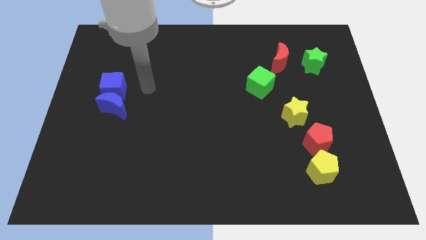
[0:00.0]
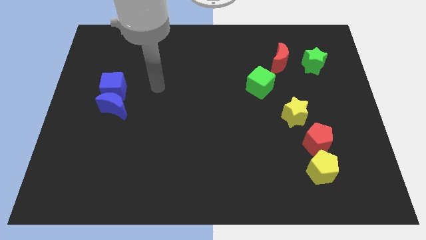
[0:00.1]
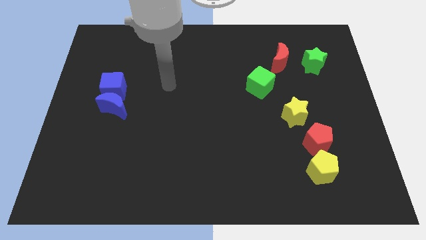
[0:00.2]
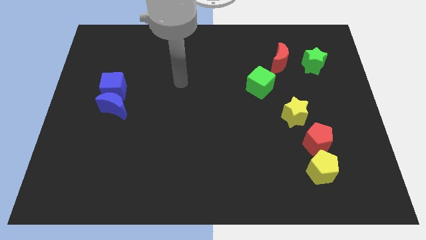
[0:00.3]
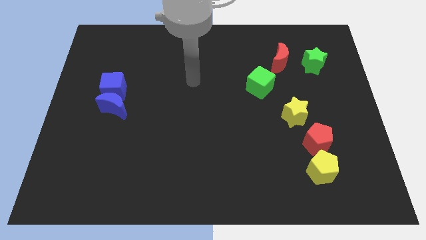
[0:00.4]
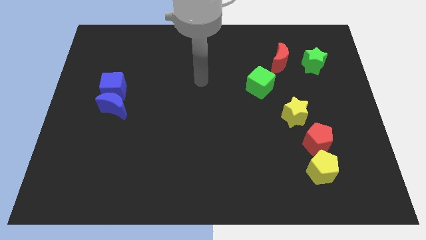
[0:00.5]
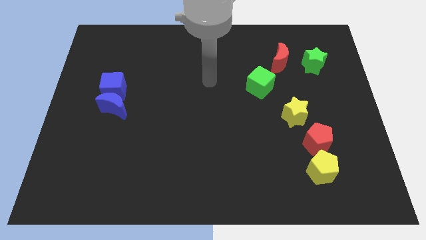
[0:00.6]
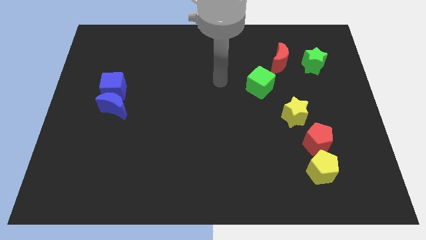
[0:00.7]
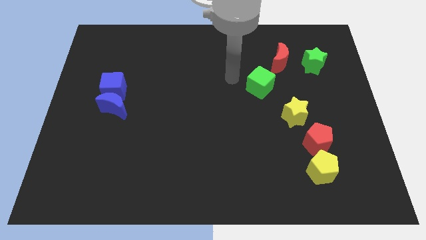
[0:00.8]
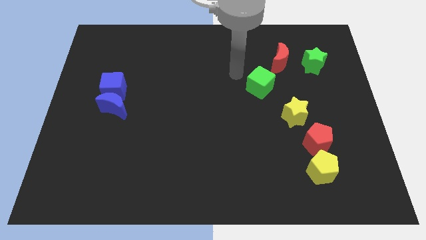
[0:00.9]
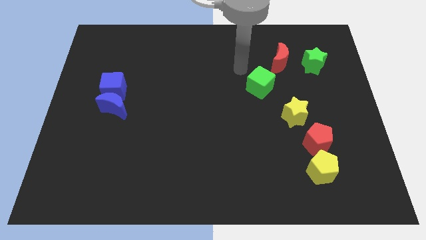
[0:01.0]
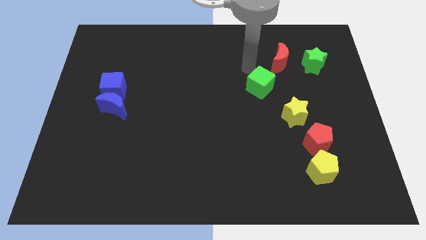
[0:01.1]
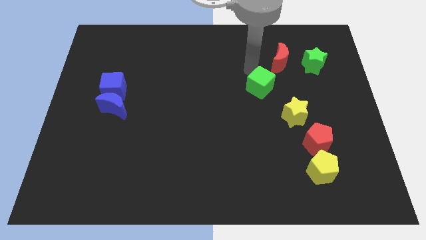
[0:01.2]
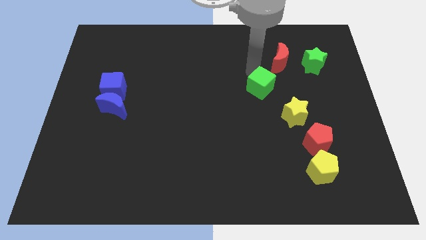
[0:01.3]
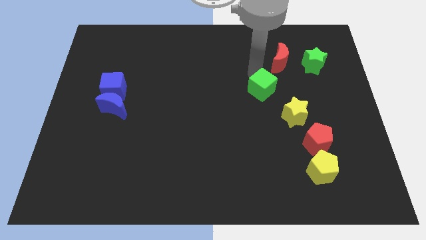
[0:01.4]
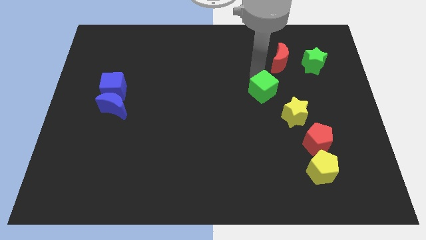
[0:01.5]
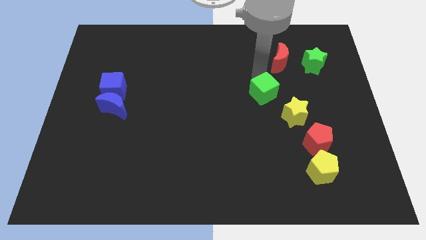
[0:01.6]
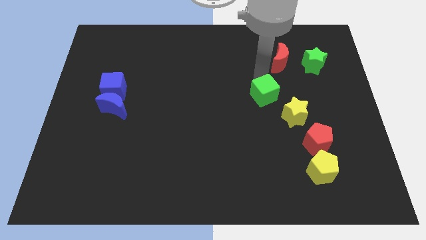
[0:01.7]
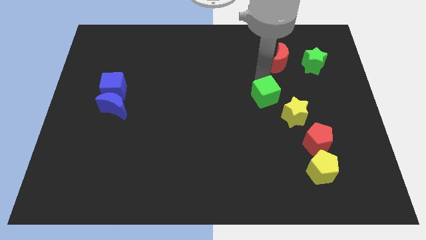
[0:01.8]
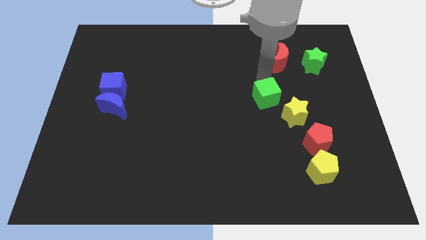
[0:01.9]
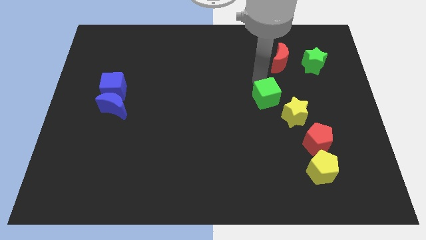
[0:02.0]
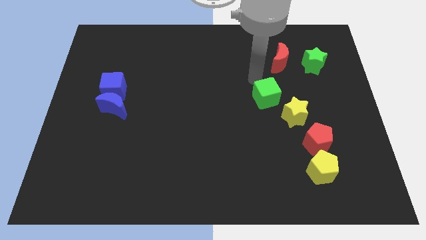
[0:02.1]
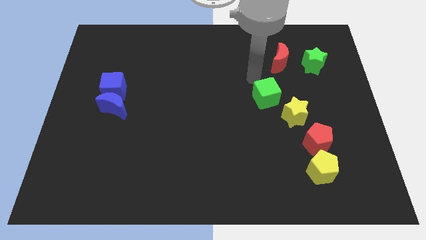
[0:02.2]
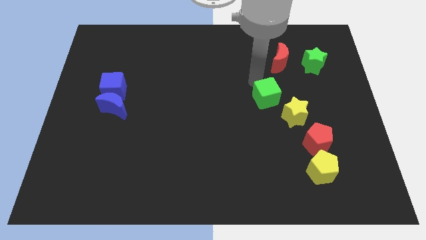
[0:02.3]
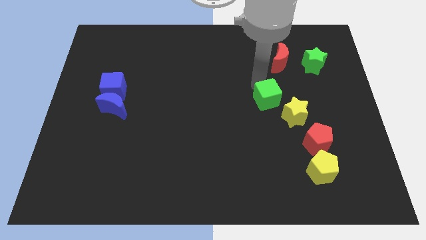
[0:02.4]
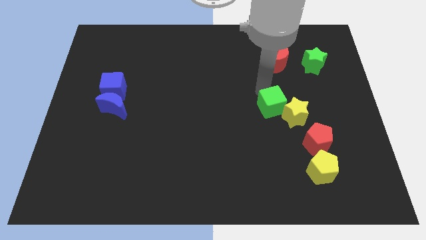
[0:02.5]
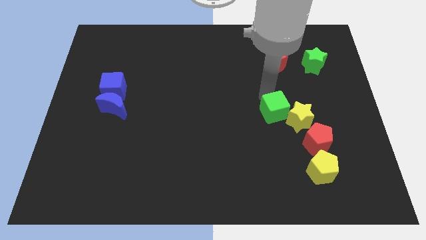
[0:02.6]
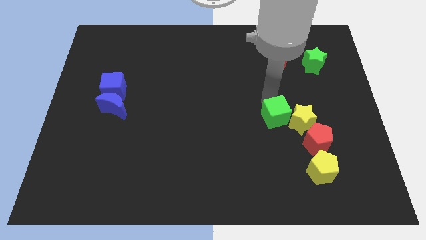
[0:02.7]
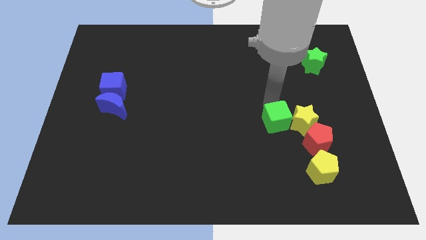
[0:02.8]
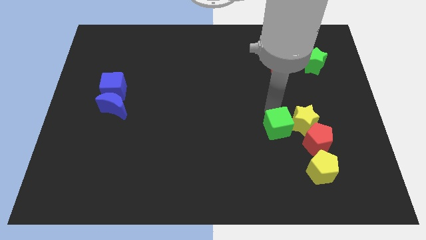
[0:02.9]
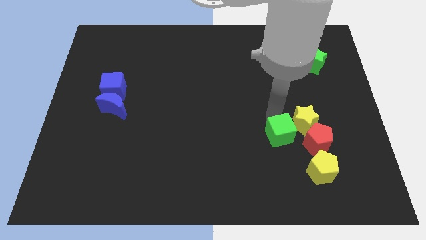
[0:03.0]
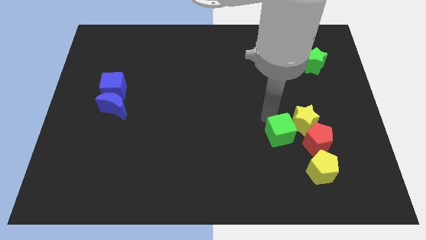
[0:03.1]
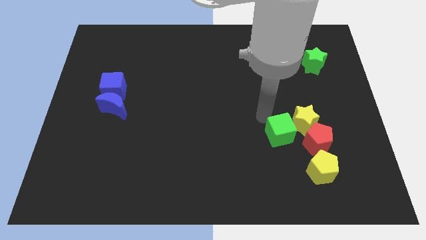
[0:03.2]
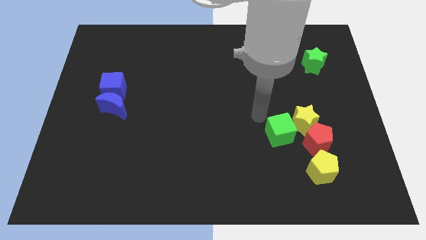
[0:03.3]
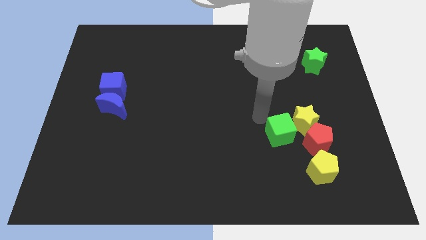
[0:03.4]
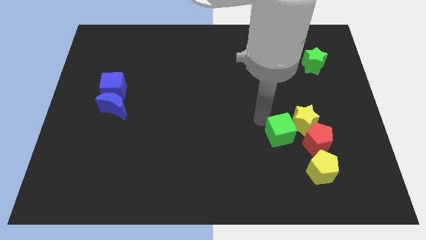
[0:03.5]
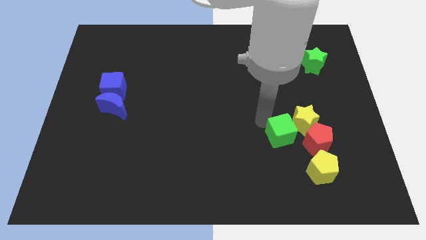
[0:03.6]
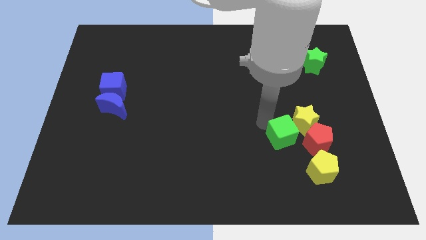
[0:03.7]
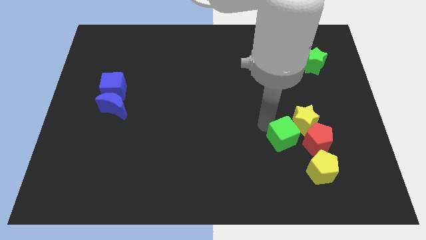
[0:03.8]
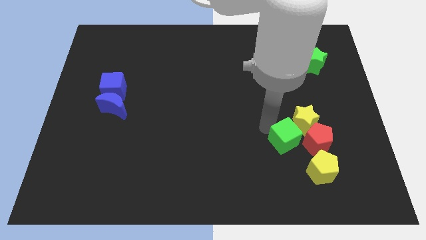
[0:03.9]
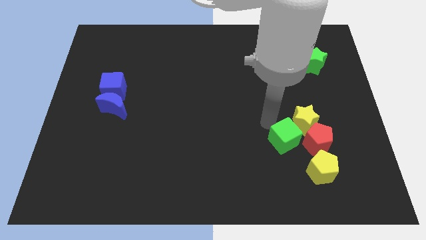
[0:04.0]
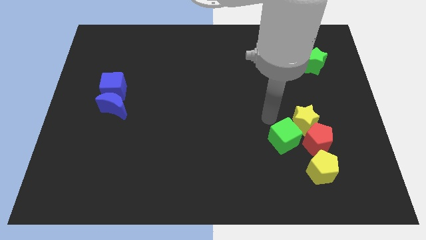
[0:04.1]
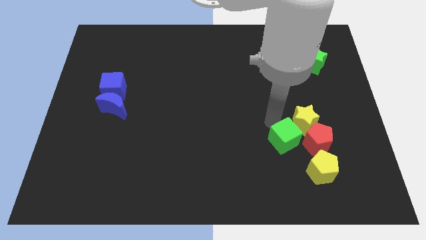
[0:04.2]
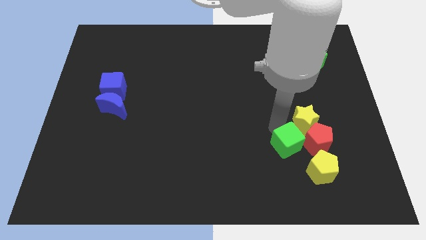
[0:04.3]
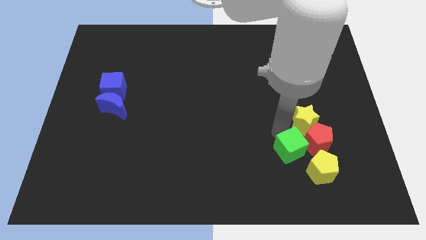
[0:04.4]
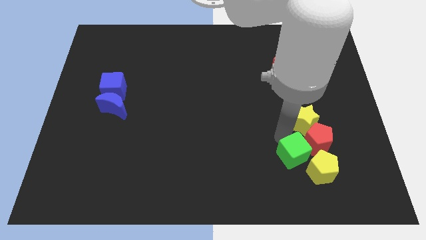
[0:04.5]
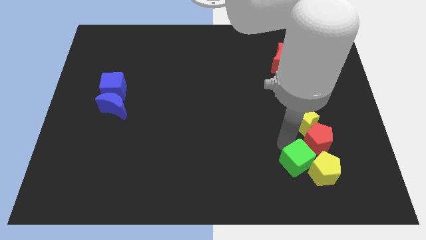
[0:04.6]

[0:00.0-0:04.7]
slide the green cube to the yellow pentagon

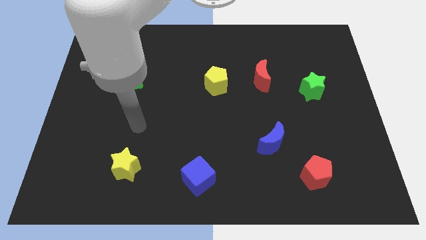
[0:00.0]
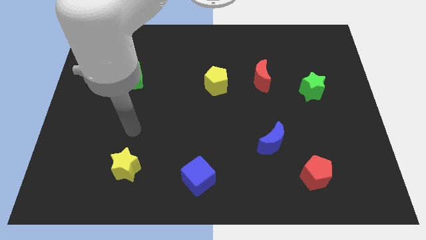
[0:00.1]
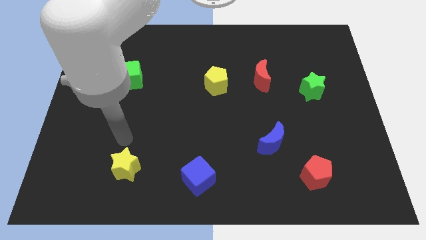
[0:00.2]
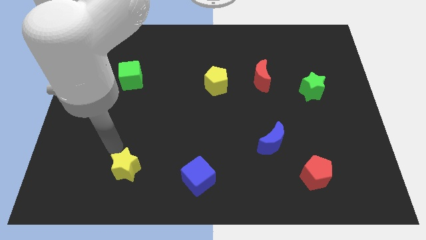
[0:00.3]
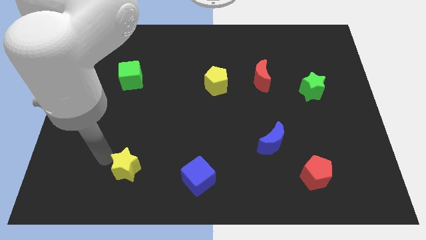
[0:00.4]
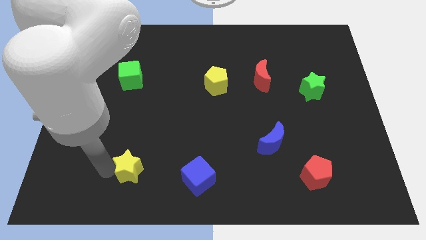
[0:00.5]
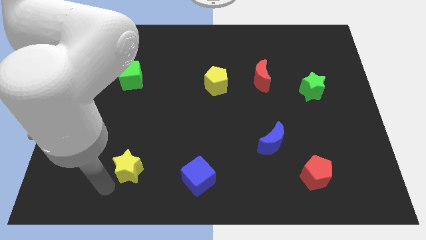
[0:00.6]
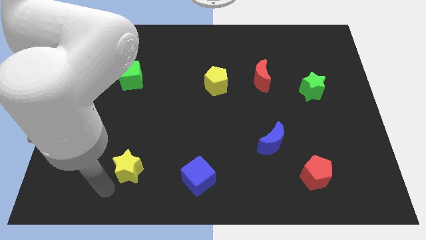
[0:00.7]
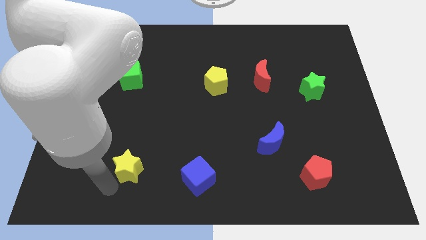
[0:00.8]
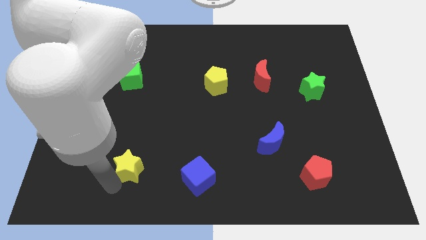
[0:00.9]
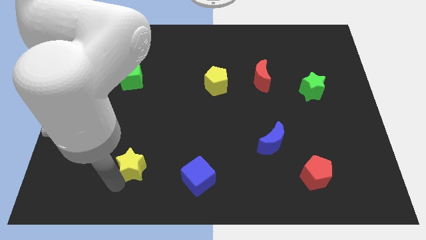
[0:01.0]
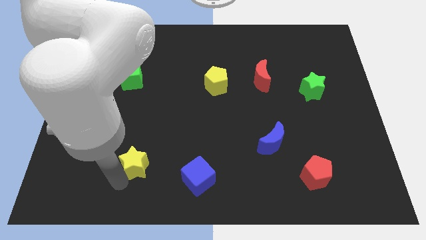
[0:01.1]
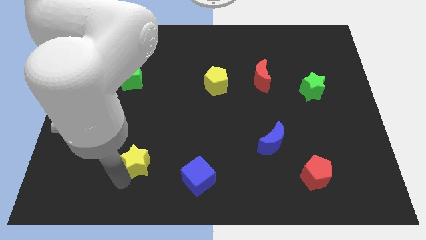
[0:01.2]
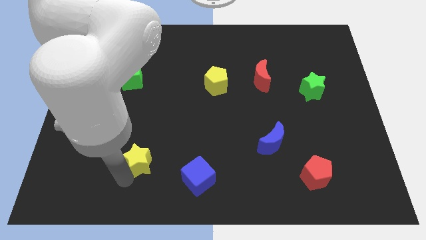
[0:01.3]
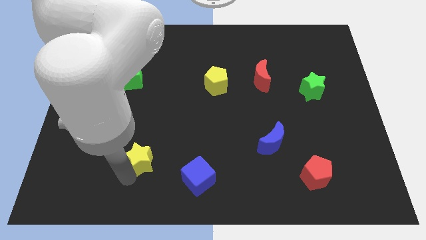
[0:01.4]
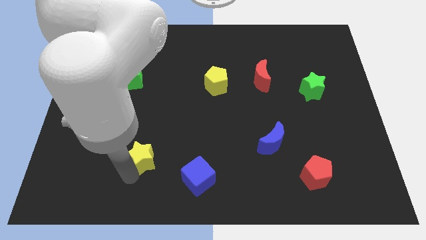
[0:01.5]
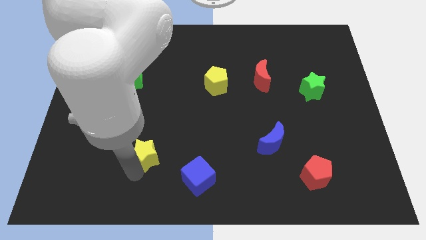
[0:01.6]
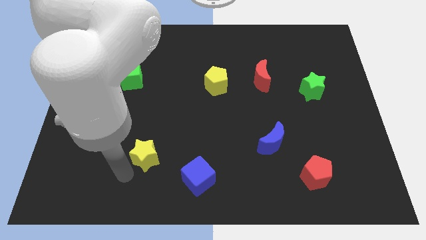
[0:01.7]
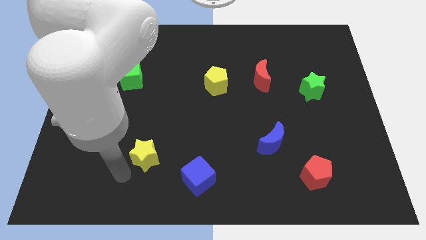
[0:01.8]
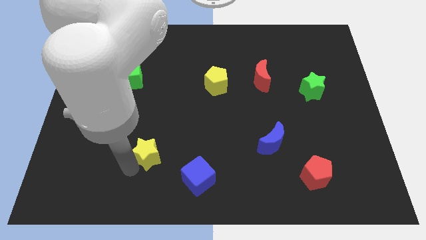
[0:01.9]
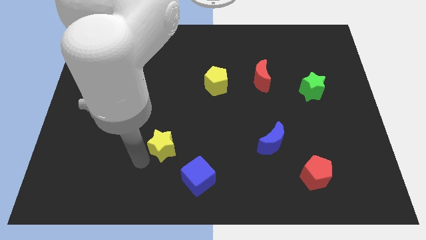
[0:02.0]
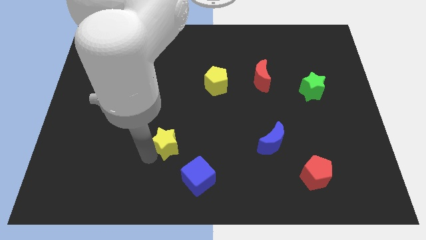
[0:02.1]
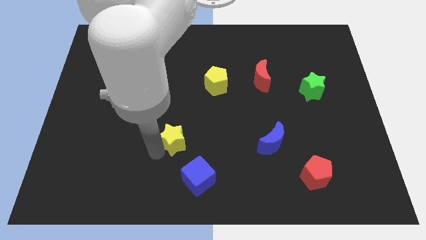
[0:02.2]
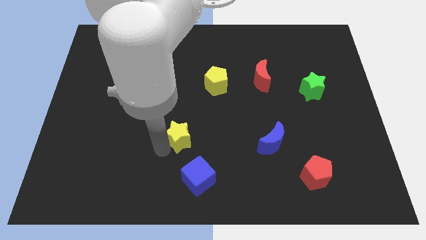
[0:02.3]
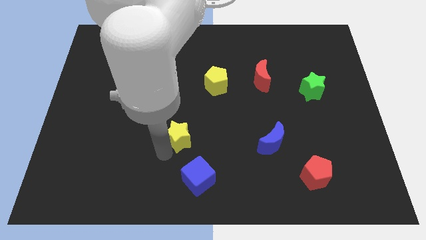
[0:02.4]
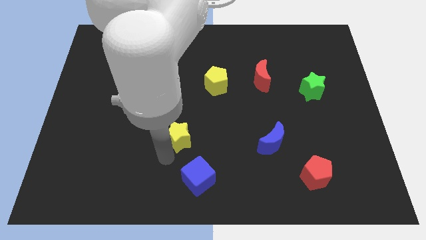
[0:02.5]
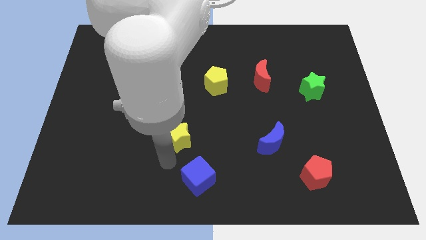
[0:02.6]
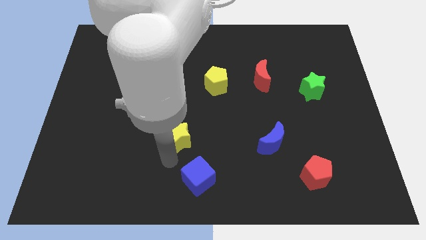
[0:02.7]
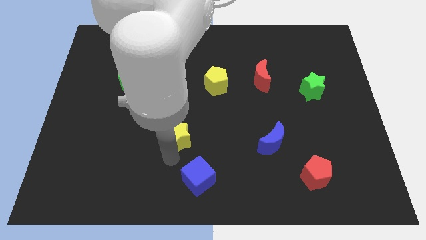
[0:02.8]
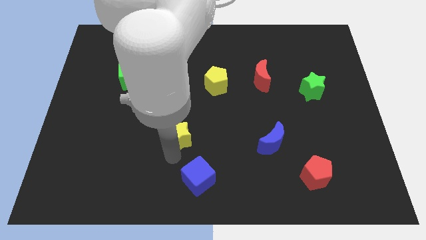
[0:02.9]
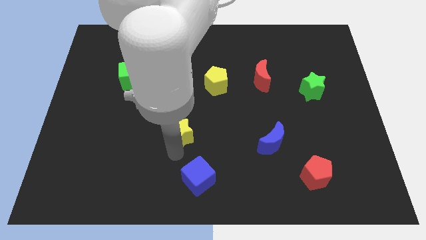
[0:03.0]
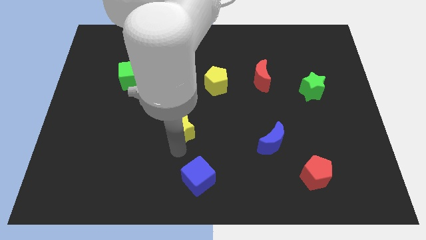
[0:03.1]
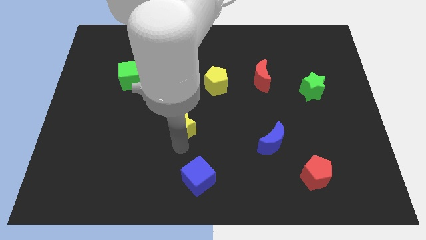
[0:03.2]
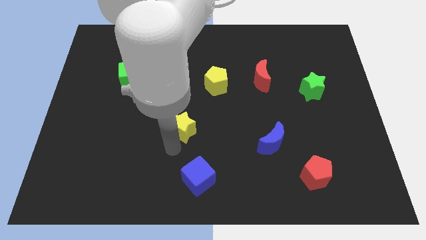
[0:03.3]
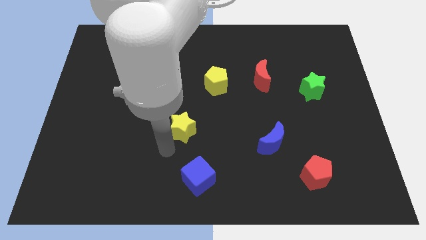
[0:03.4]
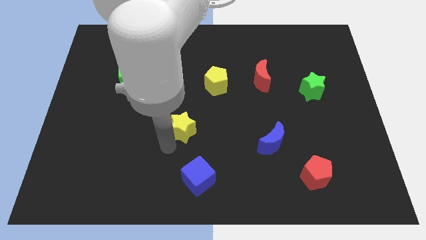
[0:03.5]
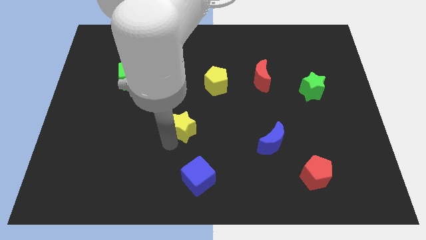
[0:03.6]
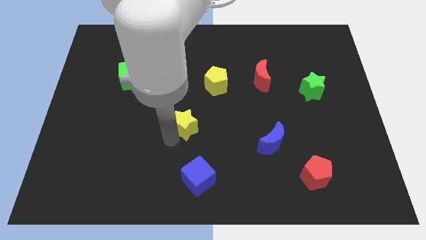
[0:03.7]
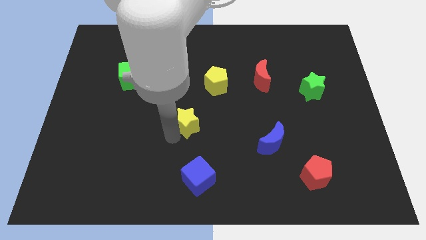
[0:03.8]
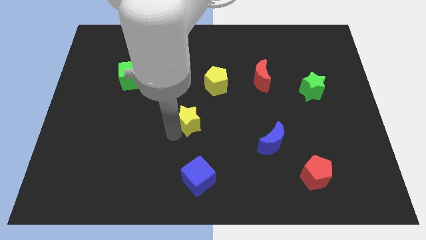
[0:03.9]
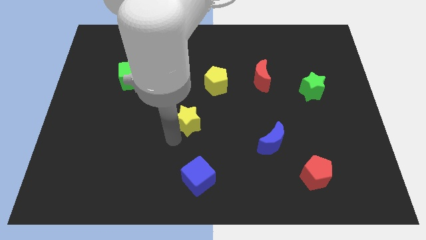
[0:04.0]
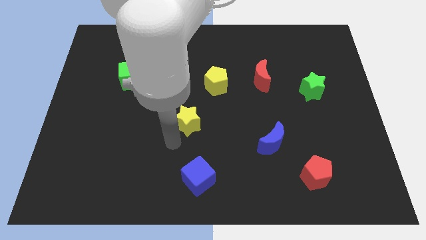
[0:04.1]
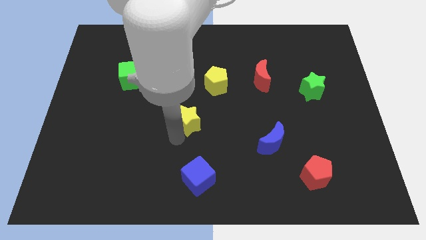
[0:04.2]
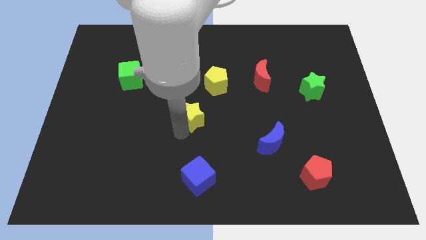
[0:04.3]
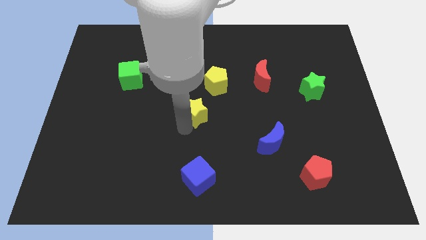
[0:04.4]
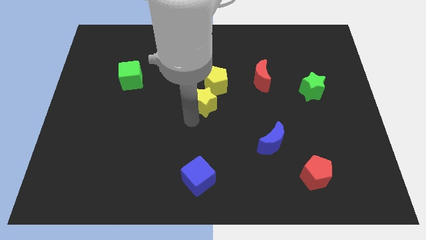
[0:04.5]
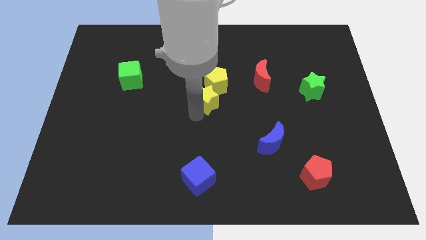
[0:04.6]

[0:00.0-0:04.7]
put the yellow star close to the yellow pentagon
